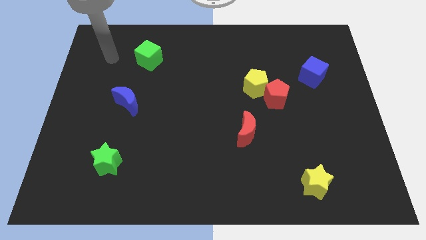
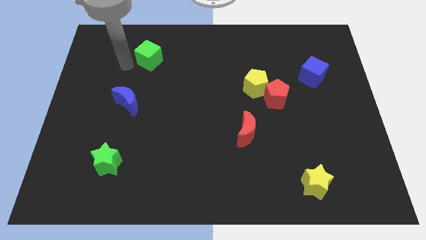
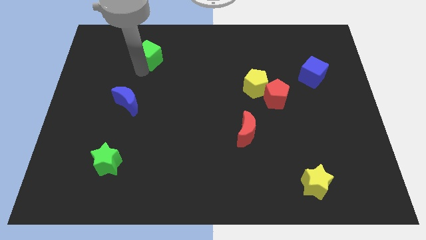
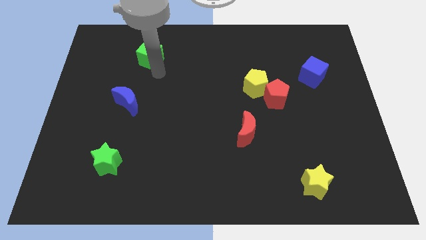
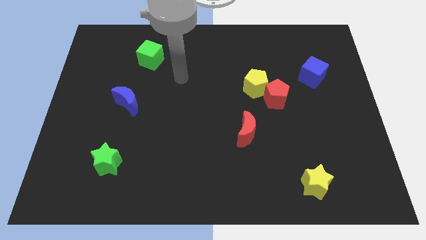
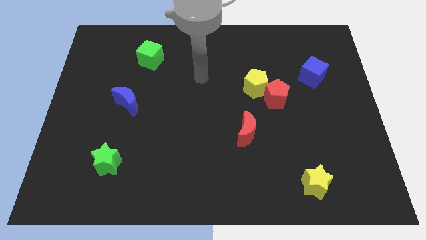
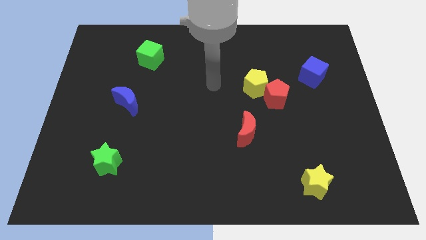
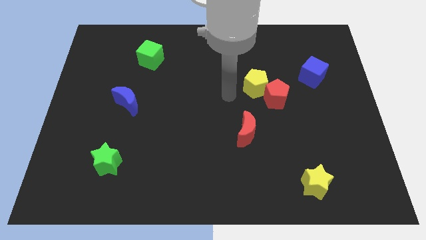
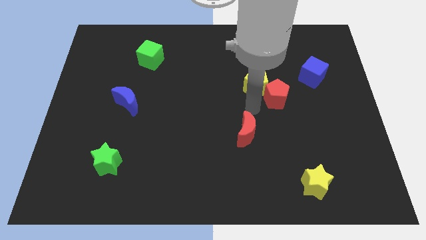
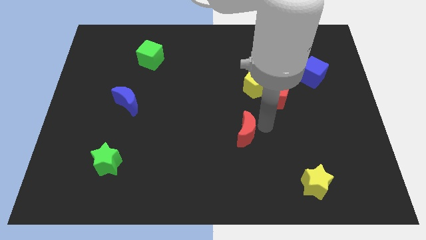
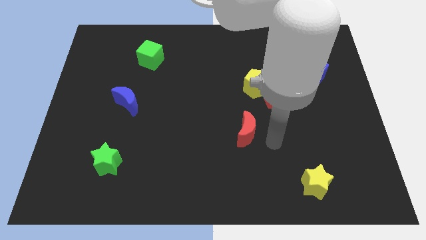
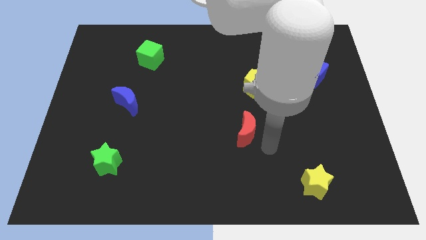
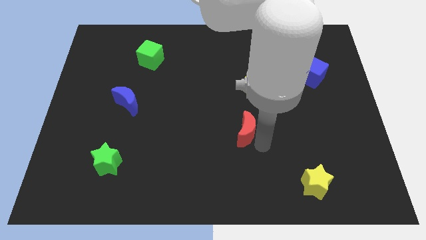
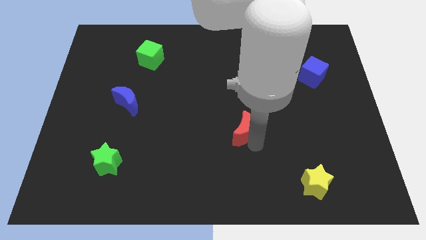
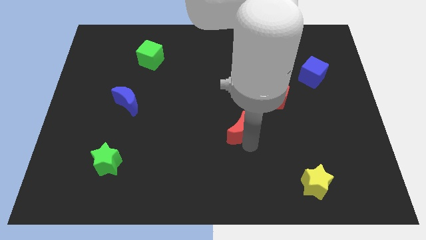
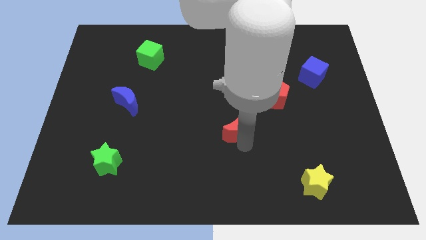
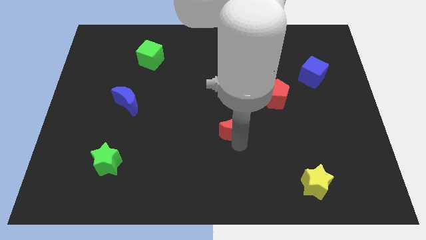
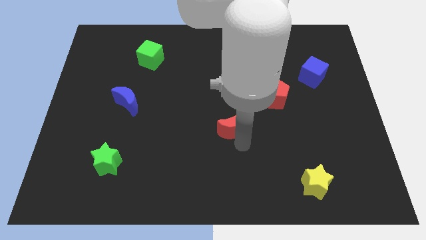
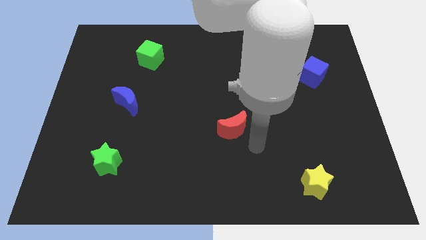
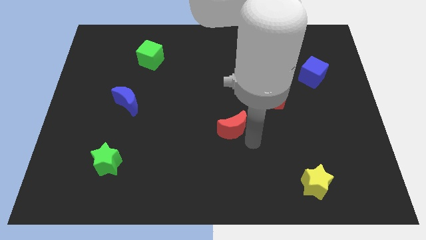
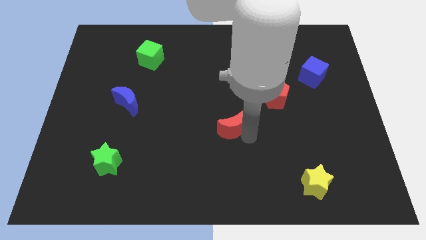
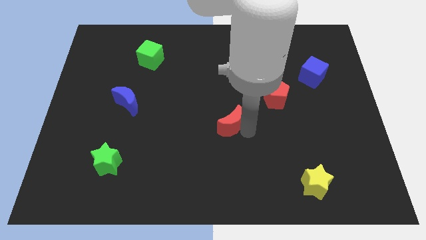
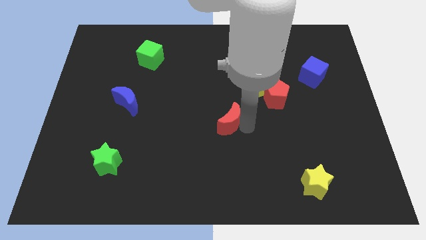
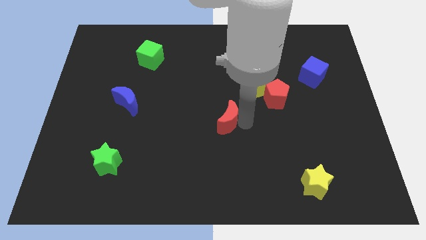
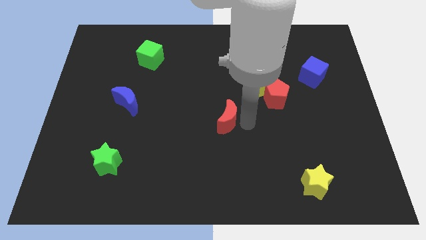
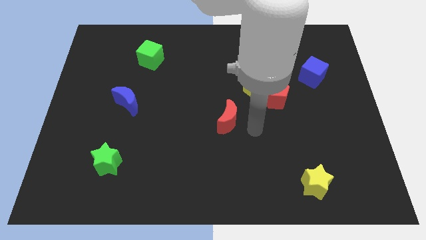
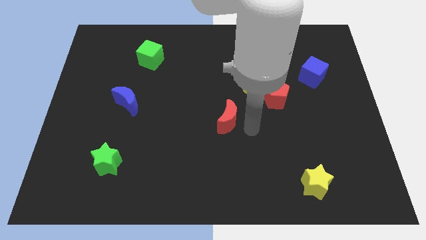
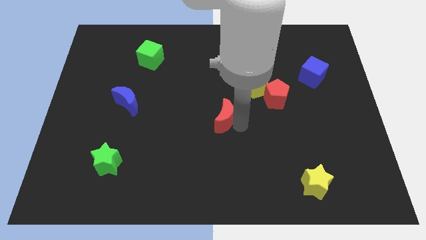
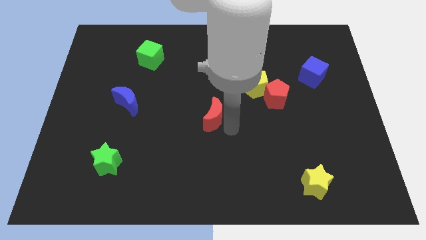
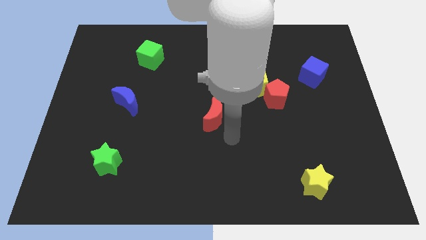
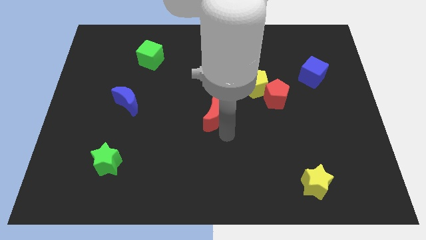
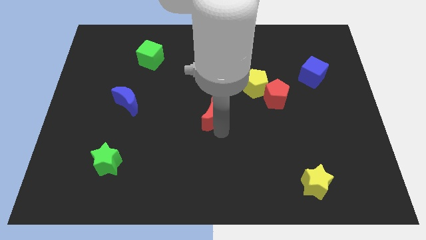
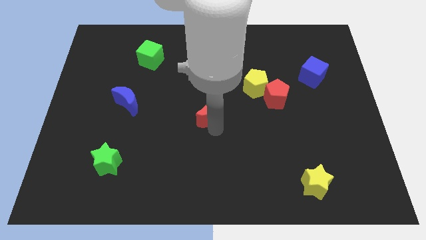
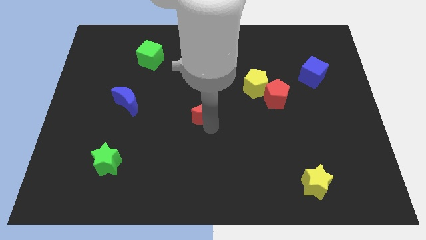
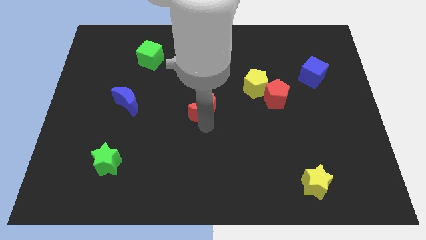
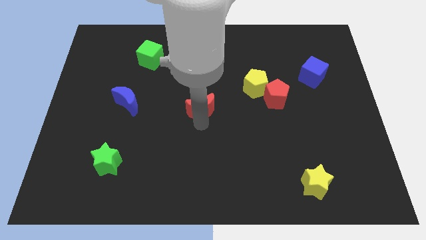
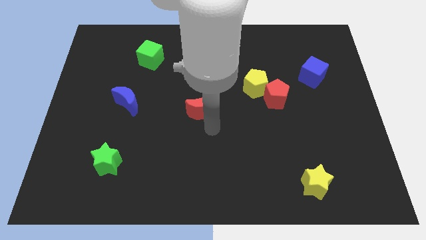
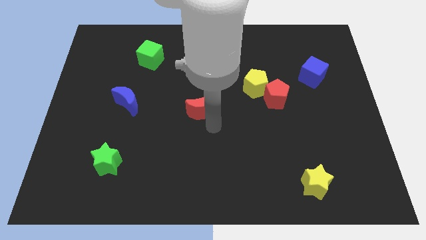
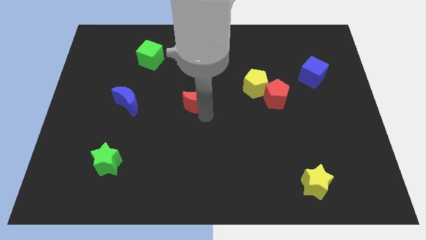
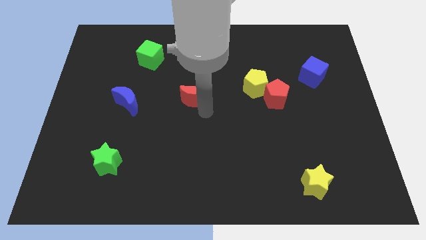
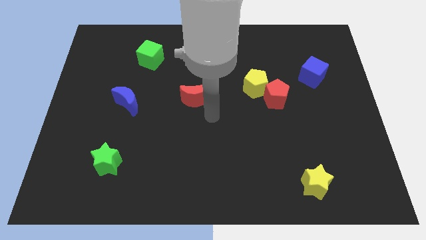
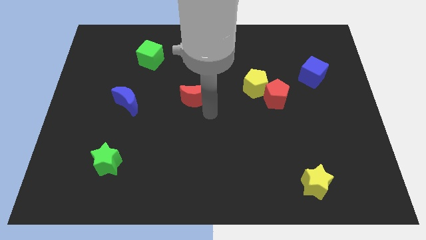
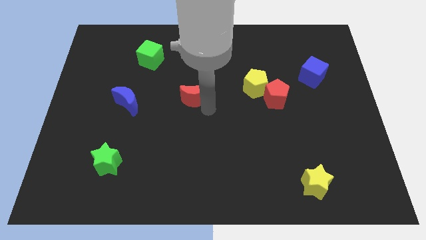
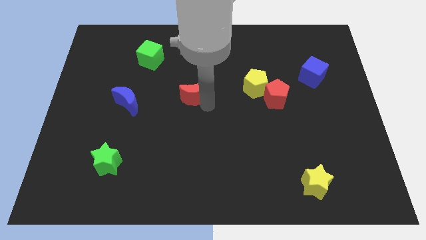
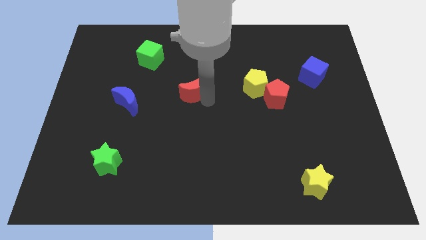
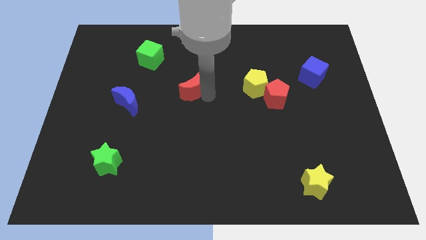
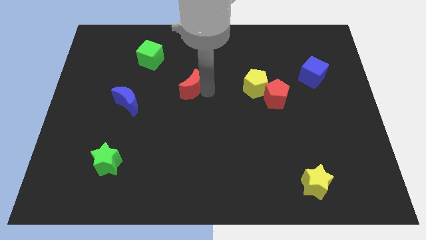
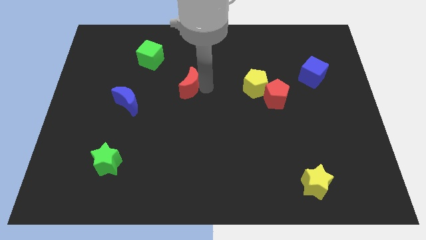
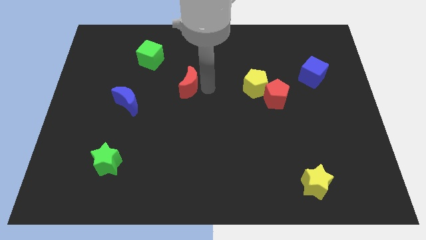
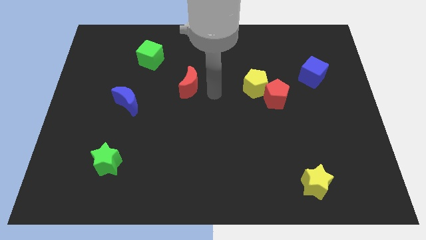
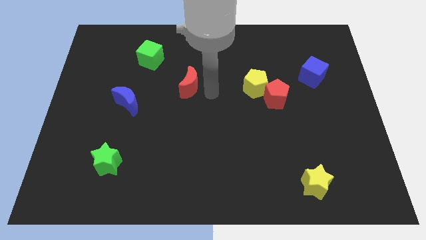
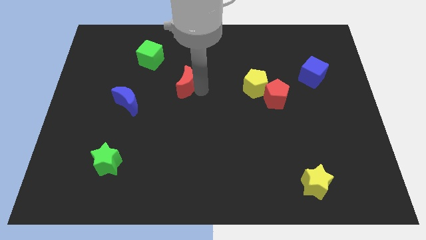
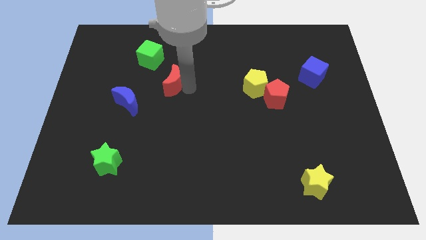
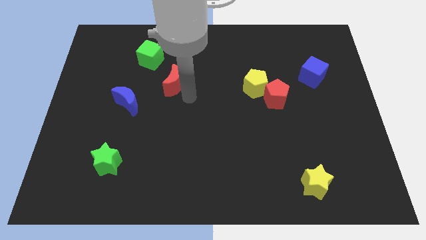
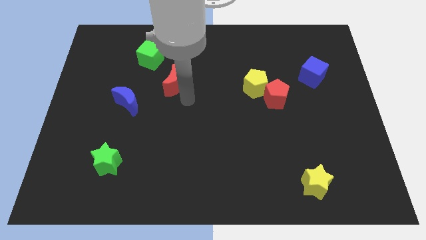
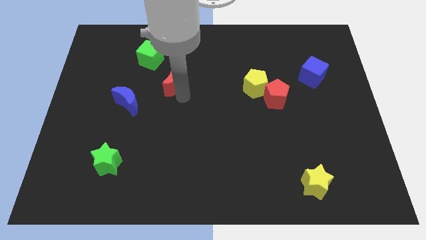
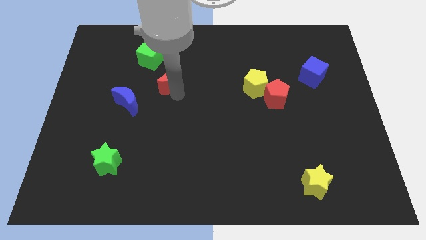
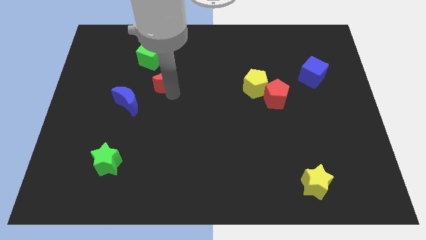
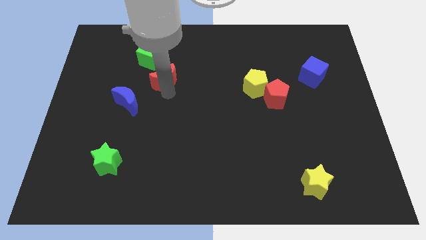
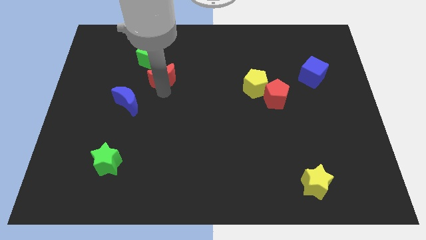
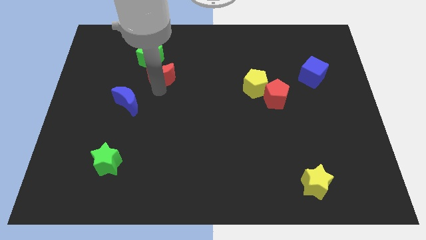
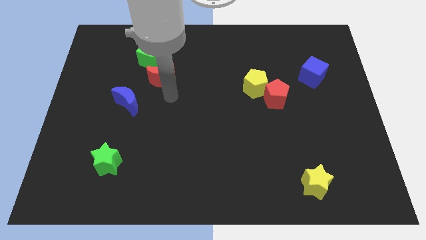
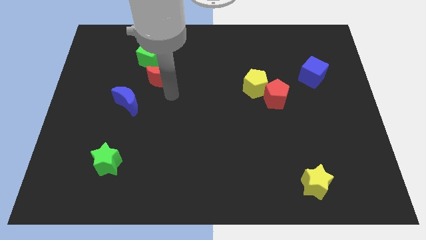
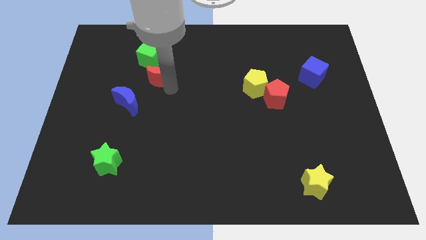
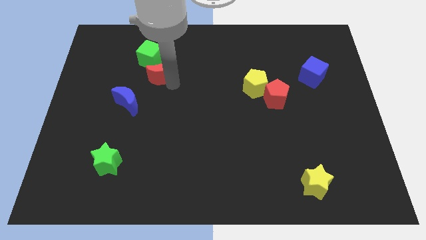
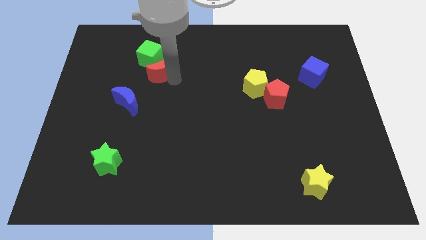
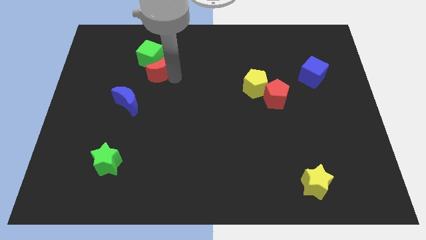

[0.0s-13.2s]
put the red moon close to the green cube
